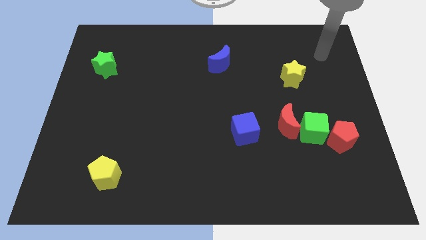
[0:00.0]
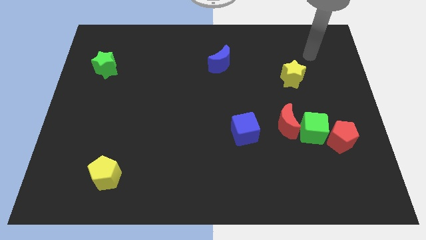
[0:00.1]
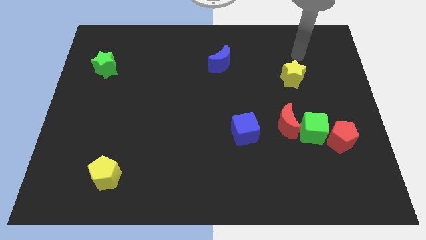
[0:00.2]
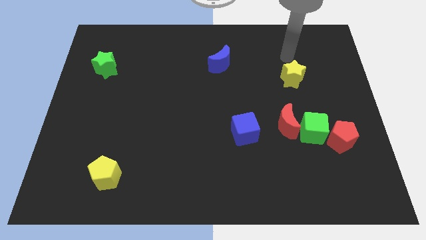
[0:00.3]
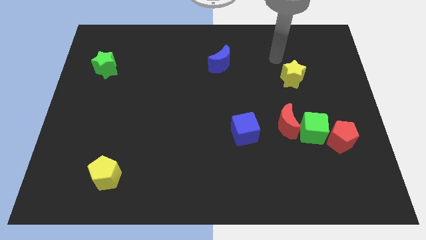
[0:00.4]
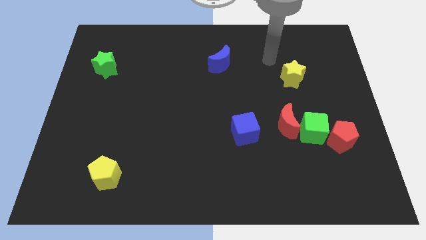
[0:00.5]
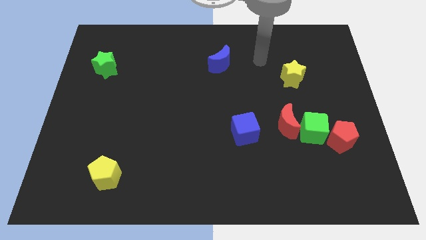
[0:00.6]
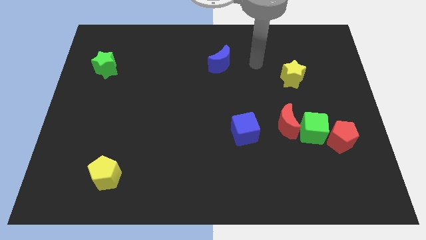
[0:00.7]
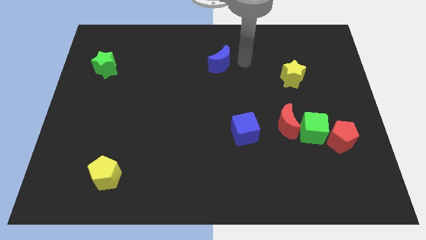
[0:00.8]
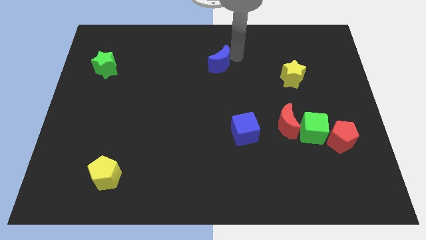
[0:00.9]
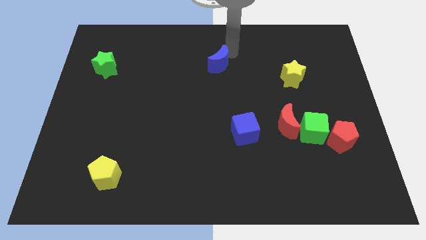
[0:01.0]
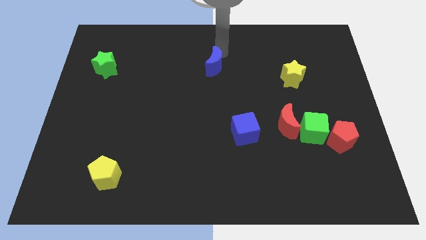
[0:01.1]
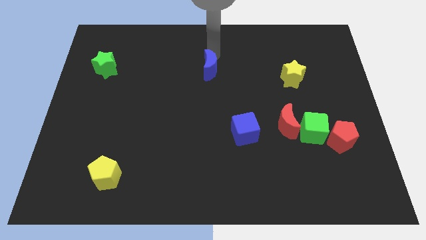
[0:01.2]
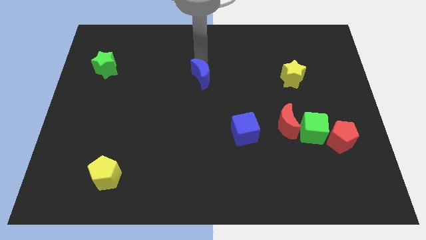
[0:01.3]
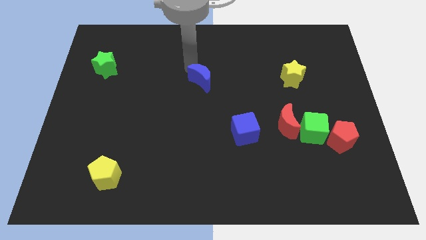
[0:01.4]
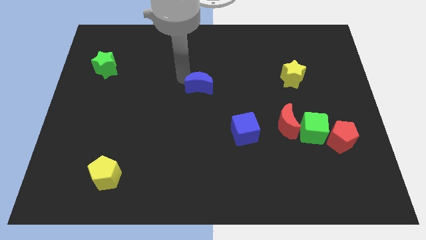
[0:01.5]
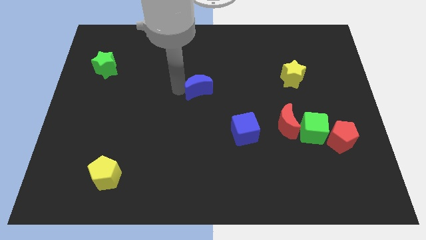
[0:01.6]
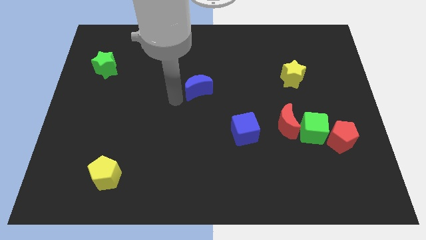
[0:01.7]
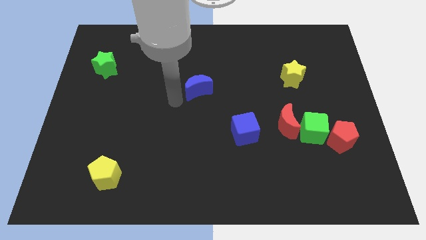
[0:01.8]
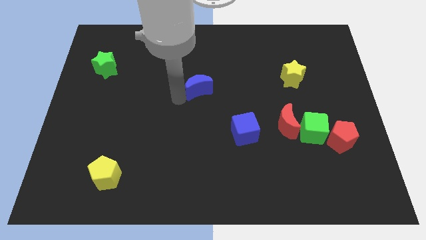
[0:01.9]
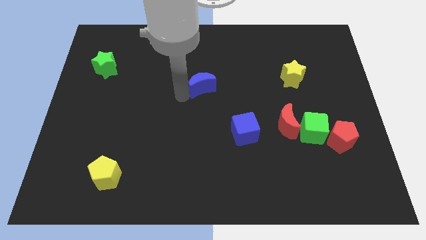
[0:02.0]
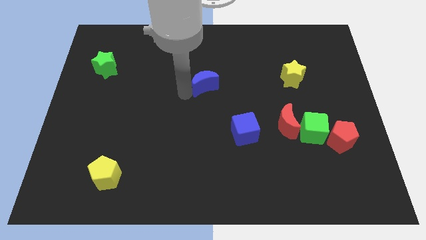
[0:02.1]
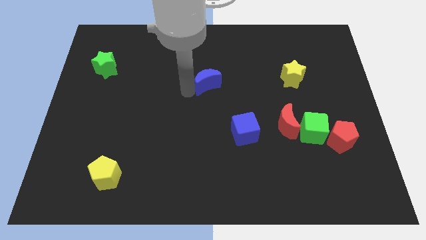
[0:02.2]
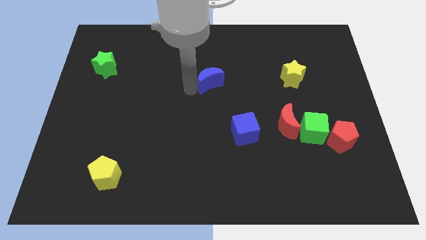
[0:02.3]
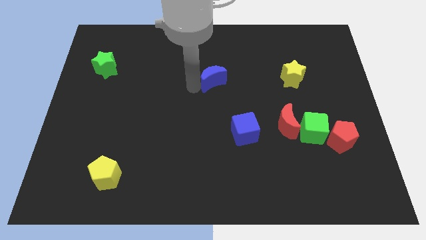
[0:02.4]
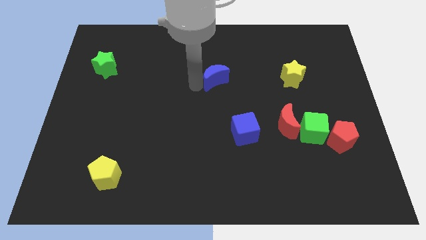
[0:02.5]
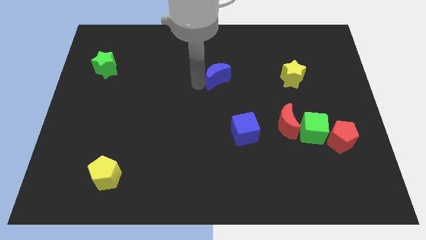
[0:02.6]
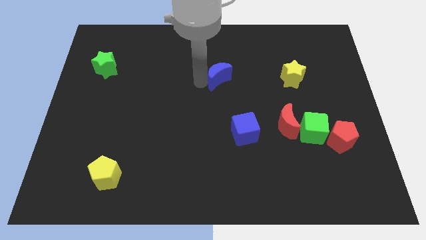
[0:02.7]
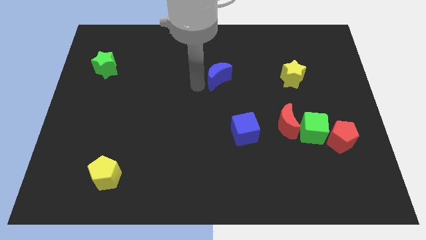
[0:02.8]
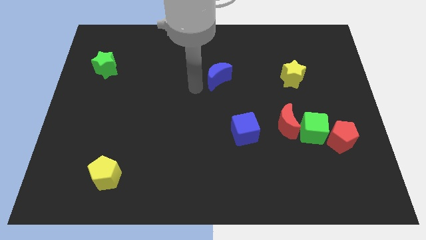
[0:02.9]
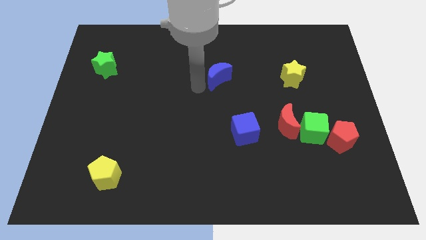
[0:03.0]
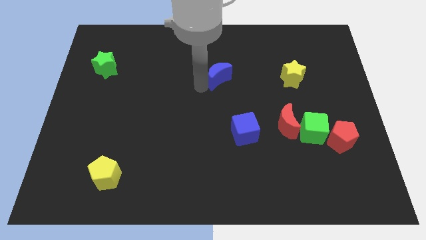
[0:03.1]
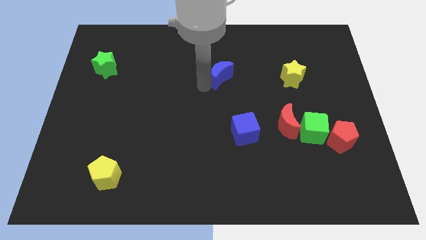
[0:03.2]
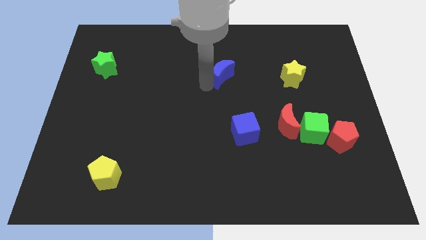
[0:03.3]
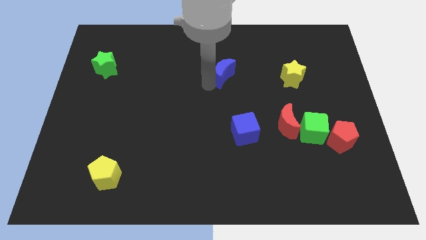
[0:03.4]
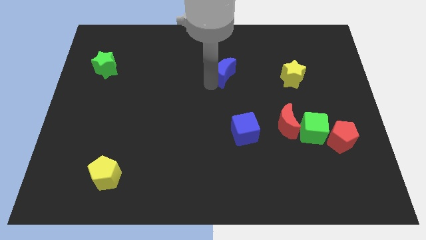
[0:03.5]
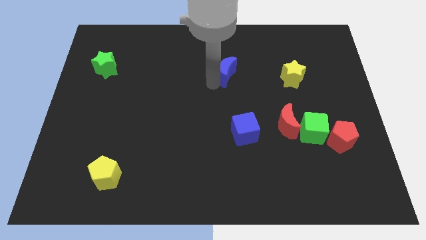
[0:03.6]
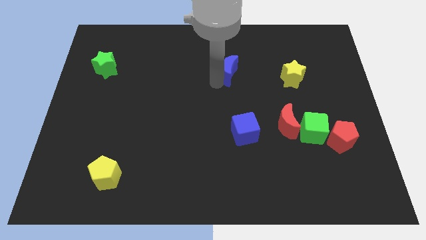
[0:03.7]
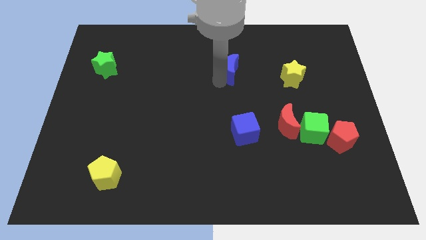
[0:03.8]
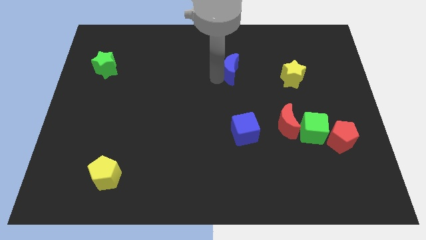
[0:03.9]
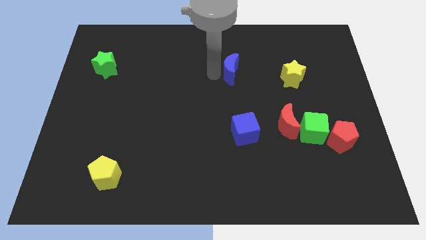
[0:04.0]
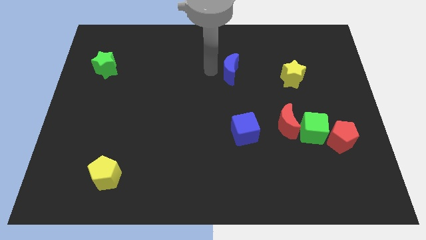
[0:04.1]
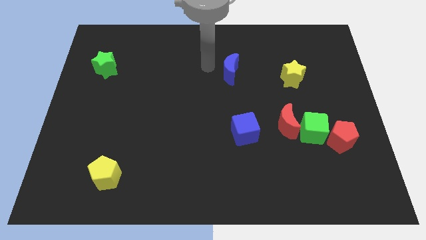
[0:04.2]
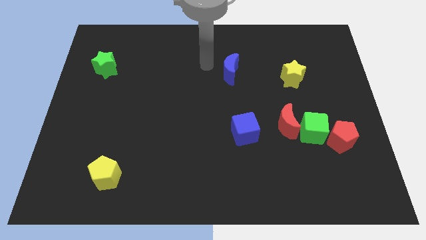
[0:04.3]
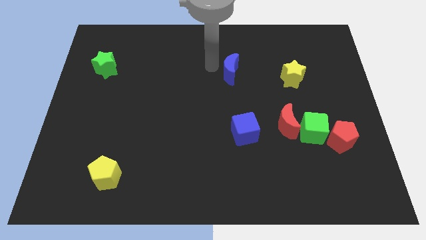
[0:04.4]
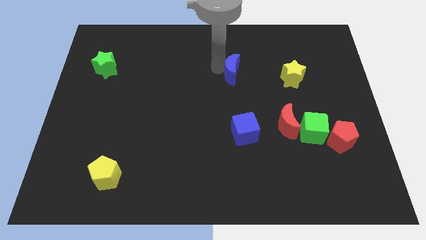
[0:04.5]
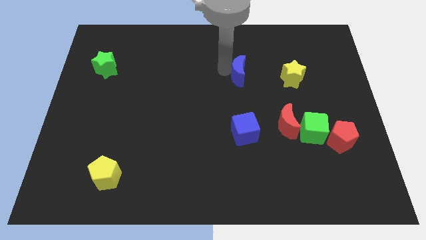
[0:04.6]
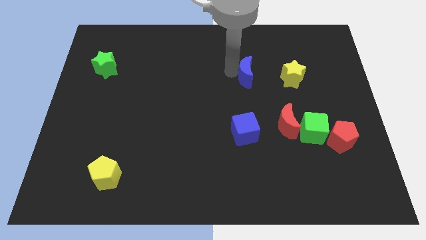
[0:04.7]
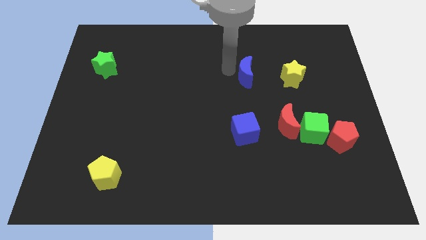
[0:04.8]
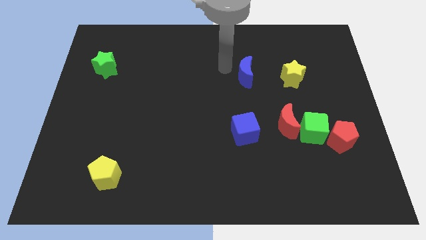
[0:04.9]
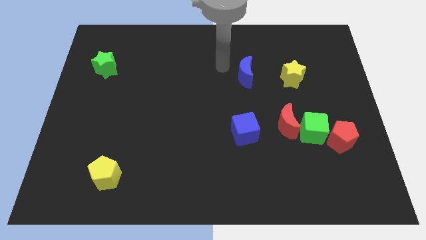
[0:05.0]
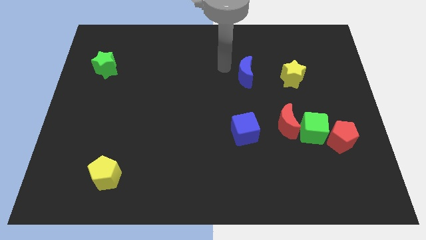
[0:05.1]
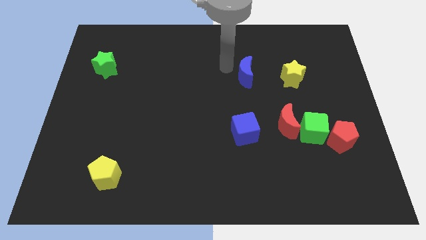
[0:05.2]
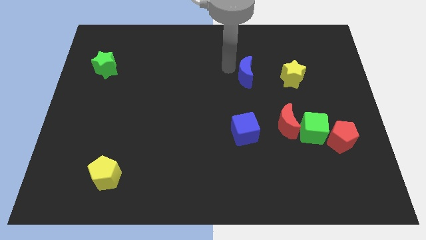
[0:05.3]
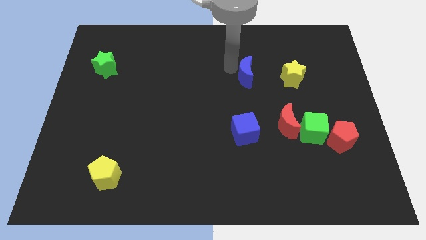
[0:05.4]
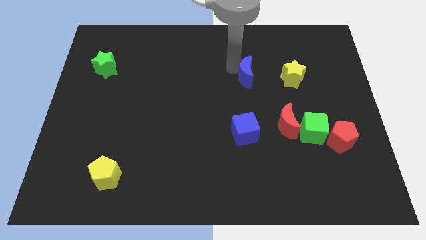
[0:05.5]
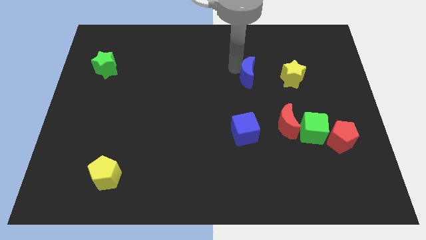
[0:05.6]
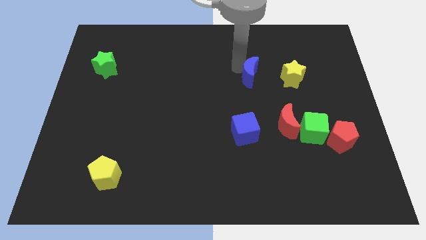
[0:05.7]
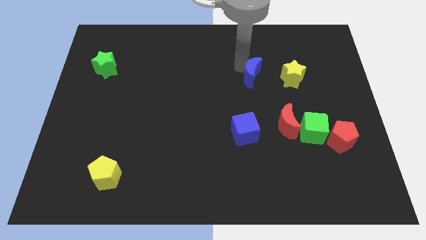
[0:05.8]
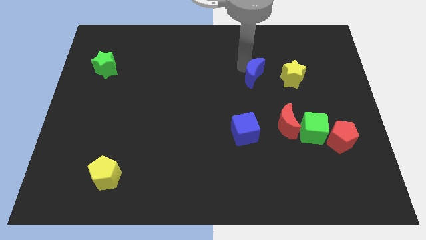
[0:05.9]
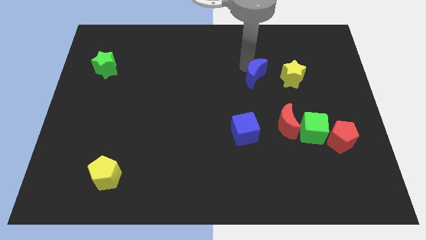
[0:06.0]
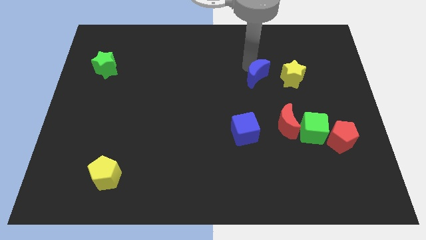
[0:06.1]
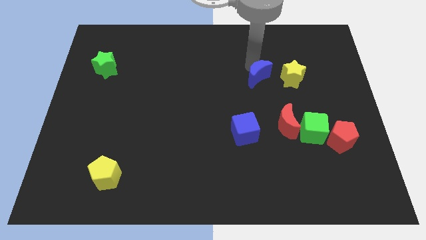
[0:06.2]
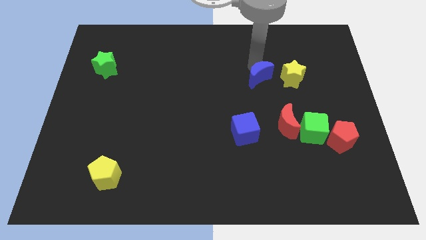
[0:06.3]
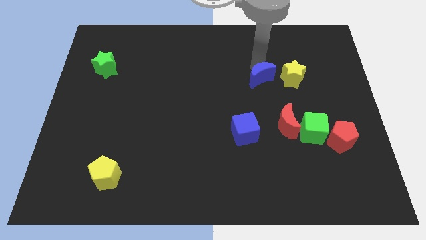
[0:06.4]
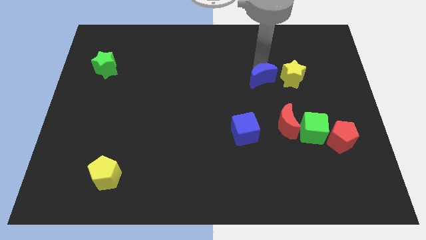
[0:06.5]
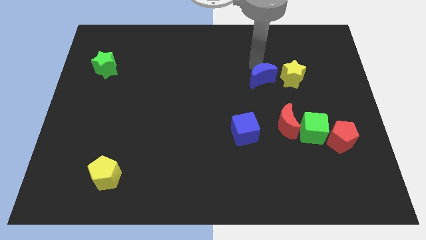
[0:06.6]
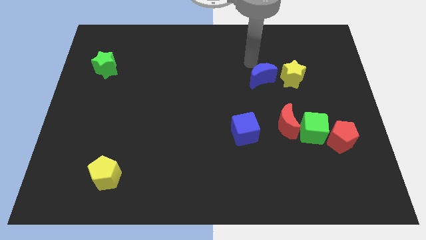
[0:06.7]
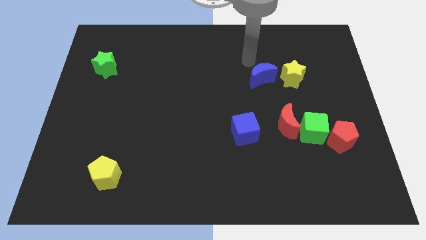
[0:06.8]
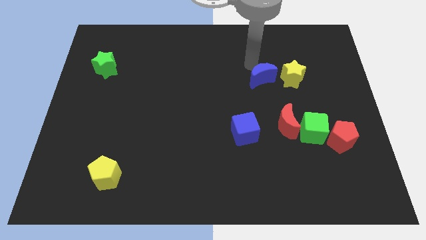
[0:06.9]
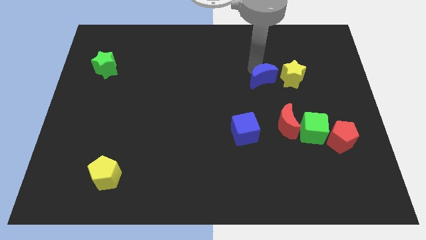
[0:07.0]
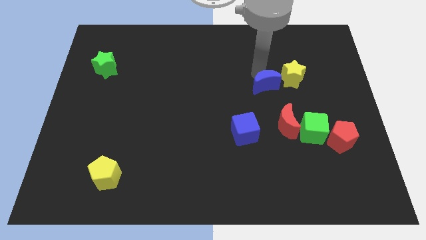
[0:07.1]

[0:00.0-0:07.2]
push the blue moon to the bottom left of the yellow star

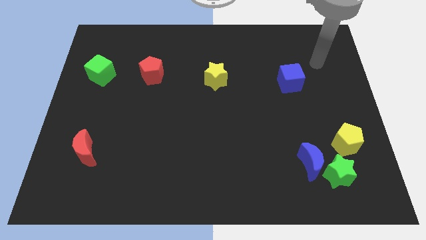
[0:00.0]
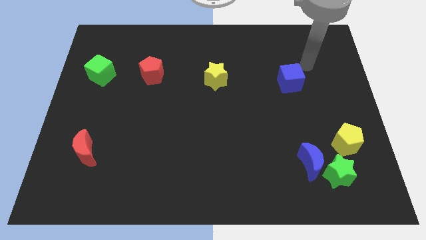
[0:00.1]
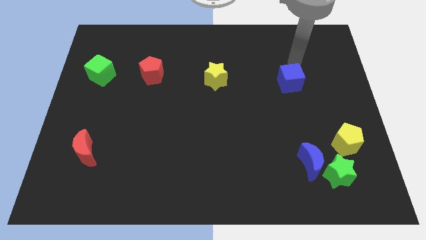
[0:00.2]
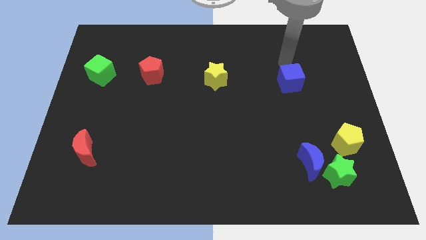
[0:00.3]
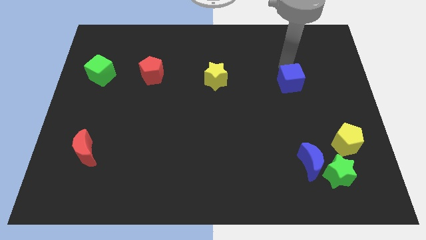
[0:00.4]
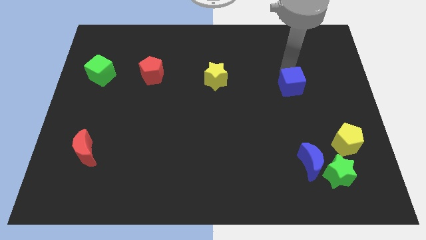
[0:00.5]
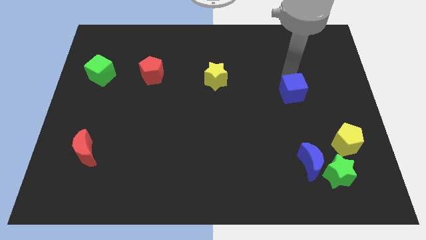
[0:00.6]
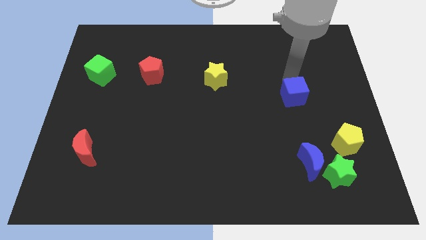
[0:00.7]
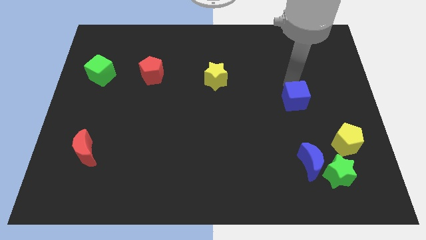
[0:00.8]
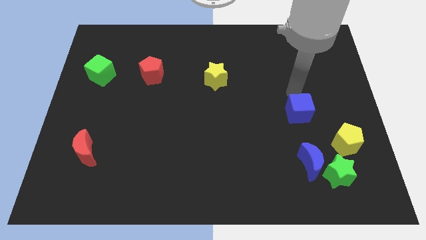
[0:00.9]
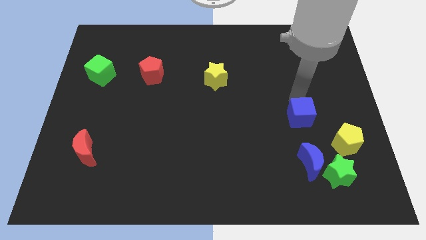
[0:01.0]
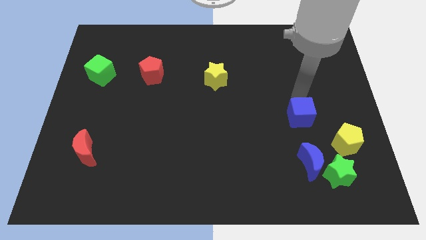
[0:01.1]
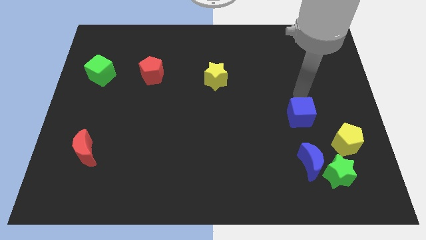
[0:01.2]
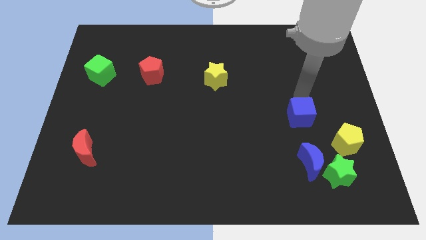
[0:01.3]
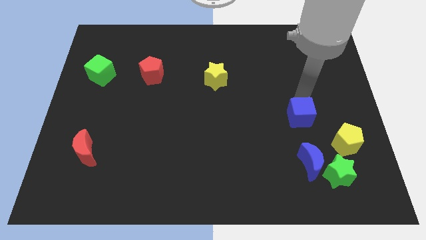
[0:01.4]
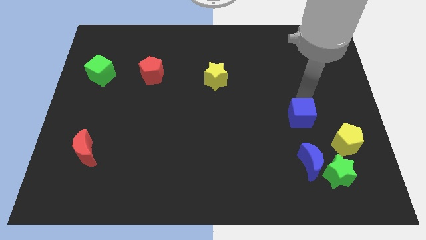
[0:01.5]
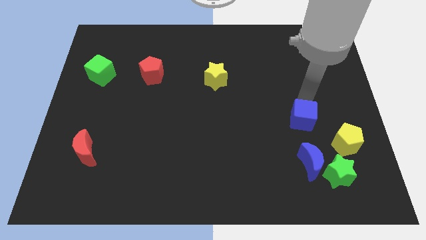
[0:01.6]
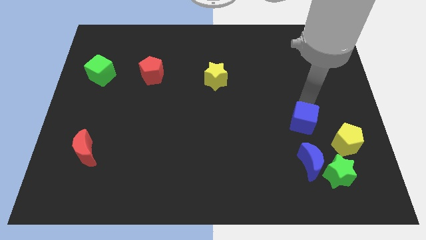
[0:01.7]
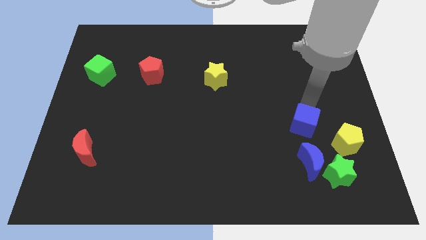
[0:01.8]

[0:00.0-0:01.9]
move the blue cube left of the yellow pentagon
